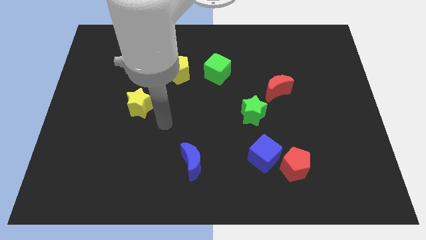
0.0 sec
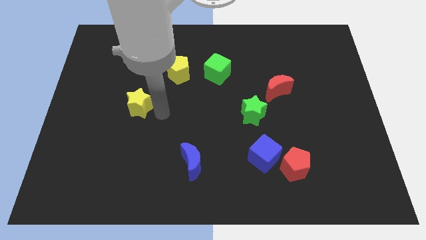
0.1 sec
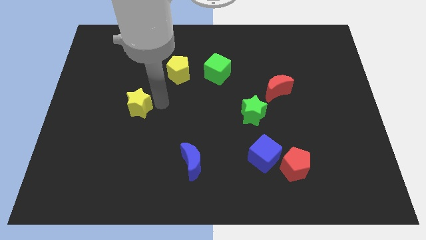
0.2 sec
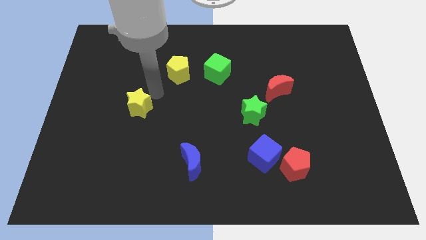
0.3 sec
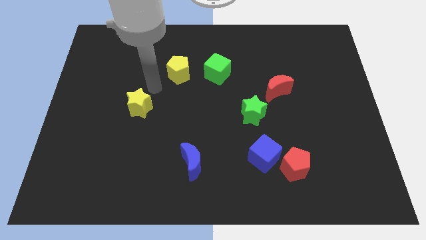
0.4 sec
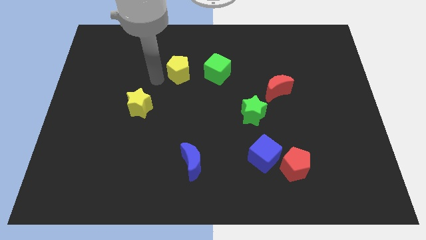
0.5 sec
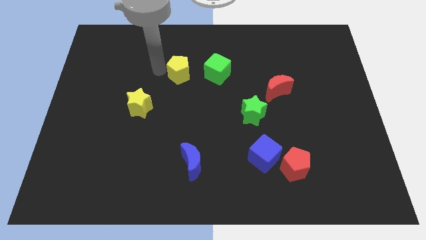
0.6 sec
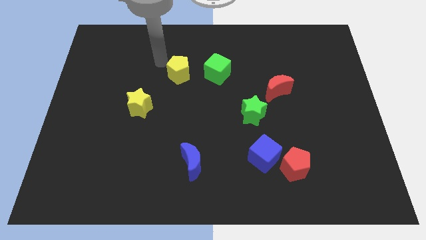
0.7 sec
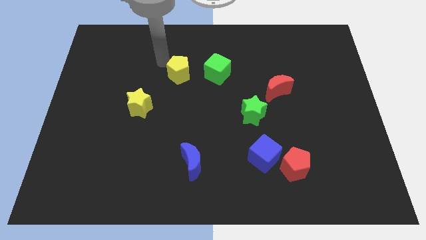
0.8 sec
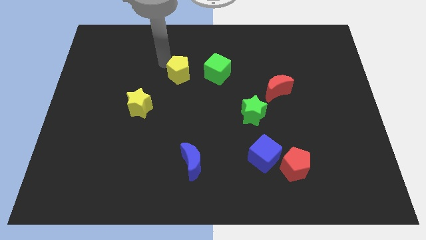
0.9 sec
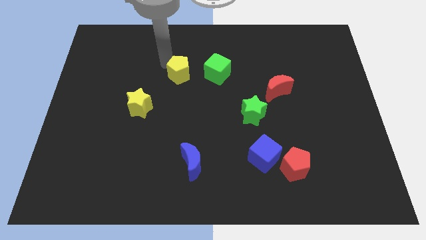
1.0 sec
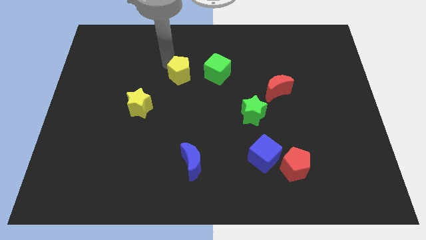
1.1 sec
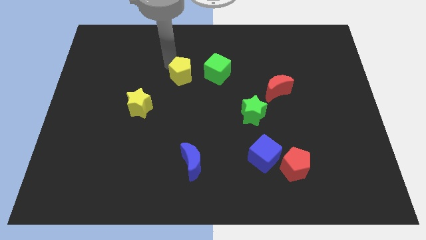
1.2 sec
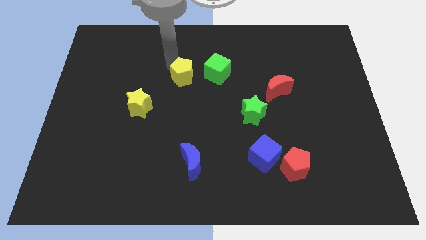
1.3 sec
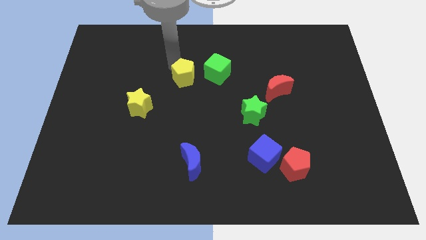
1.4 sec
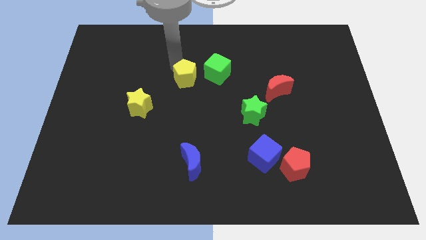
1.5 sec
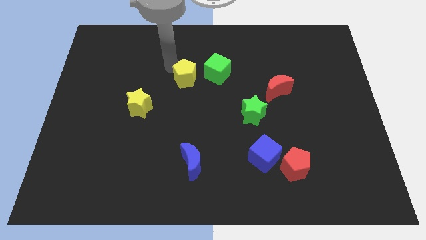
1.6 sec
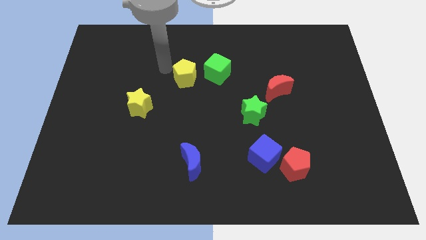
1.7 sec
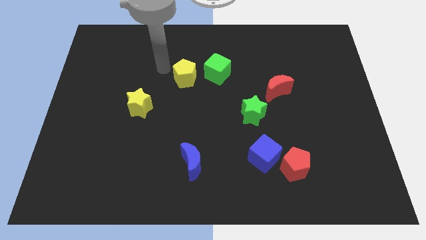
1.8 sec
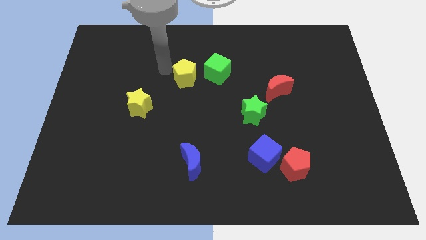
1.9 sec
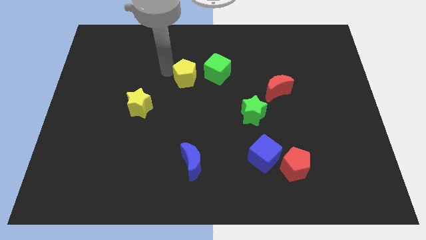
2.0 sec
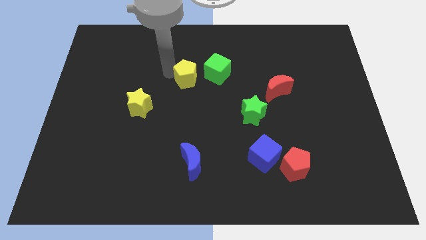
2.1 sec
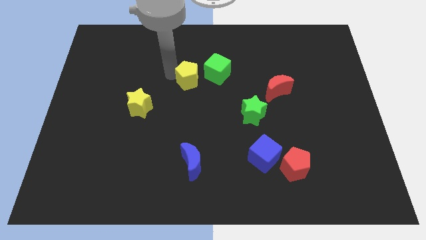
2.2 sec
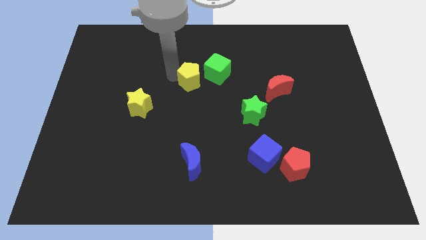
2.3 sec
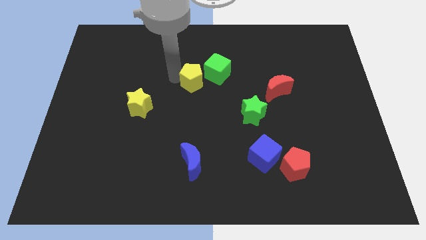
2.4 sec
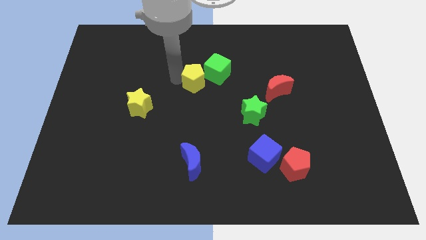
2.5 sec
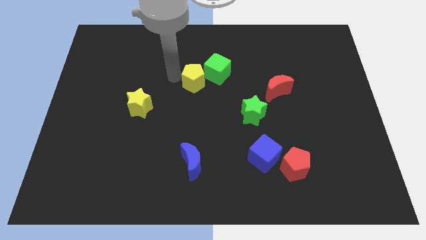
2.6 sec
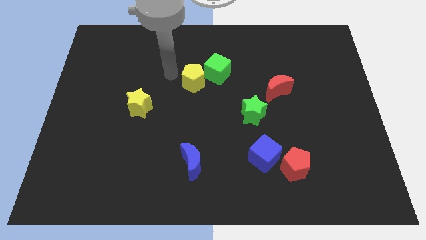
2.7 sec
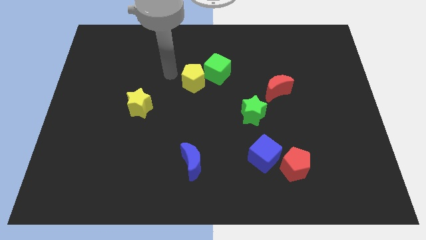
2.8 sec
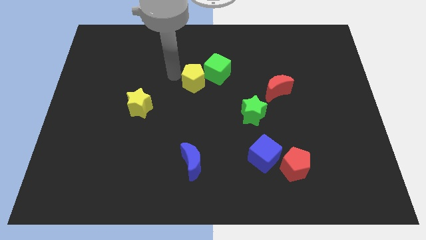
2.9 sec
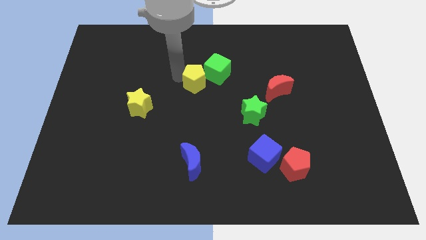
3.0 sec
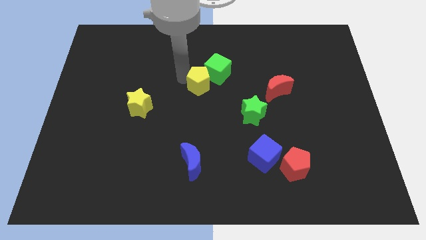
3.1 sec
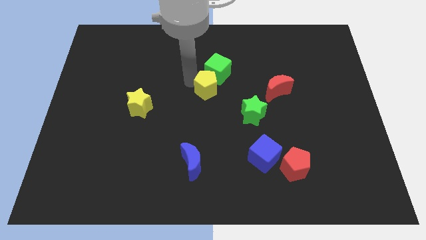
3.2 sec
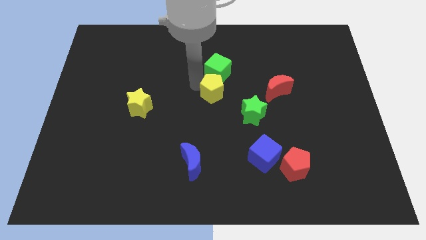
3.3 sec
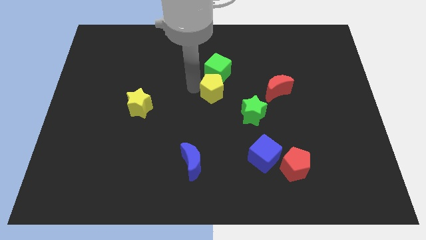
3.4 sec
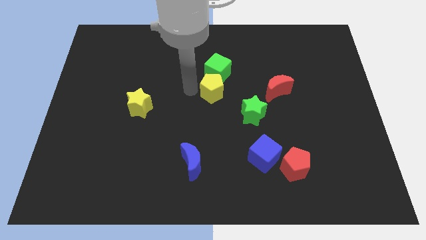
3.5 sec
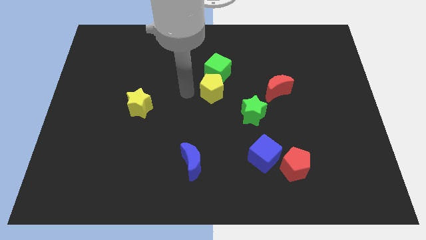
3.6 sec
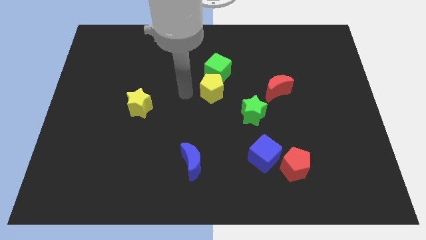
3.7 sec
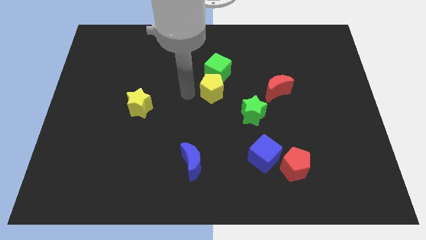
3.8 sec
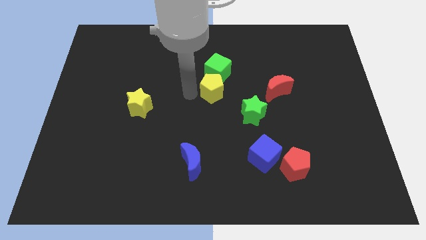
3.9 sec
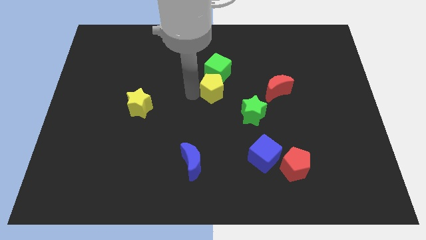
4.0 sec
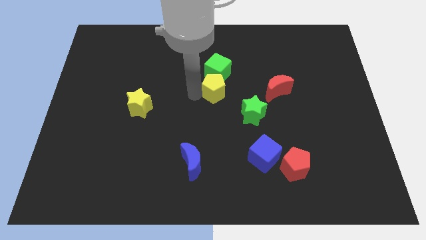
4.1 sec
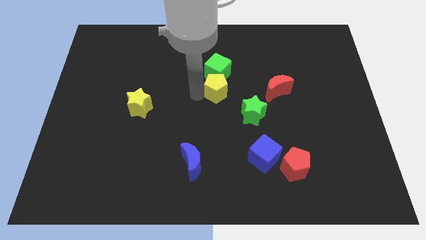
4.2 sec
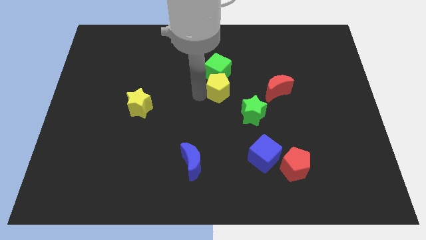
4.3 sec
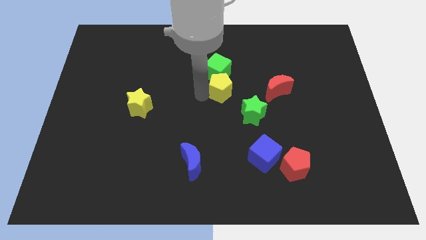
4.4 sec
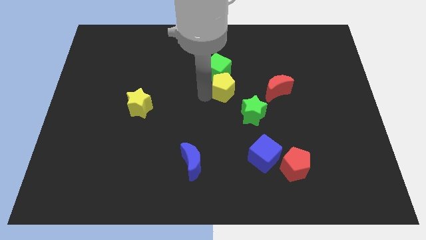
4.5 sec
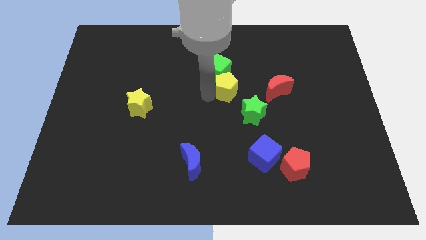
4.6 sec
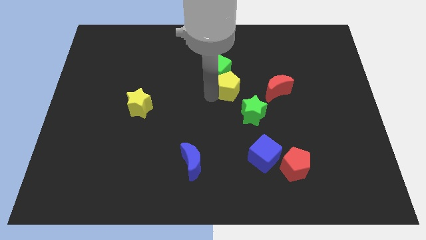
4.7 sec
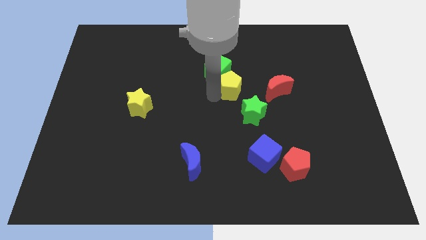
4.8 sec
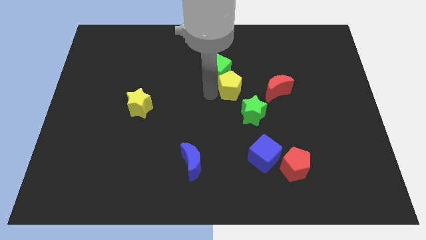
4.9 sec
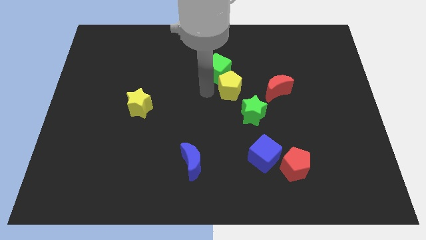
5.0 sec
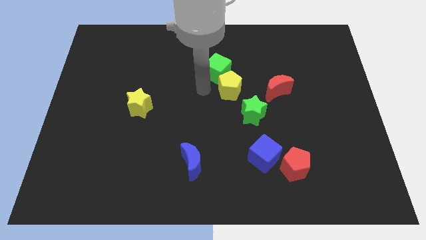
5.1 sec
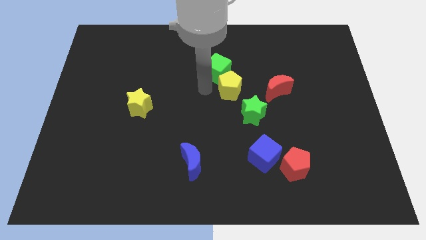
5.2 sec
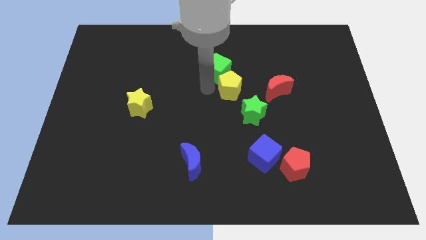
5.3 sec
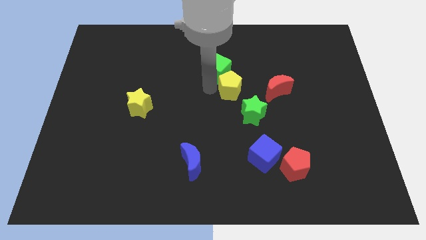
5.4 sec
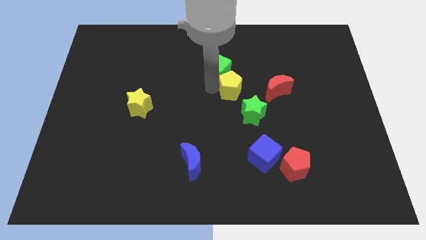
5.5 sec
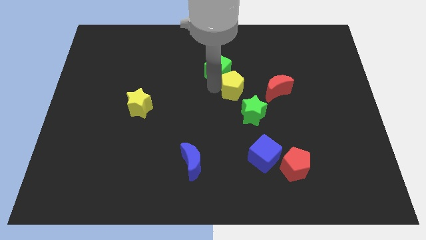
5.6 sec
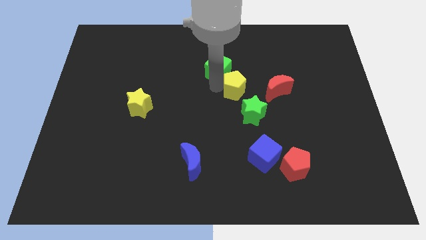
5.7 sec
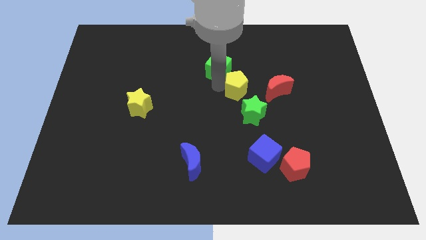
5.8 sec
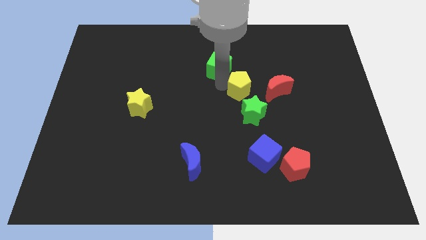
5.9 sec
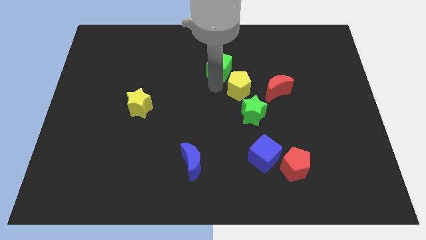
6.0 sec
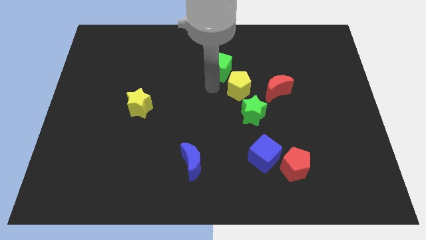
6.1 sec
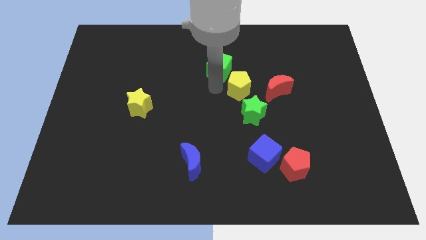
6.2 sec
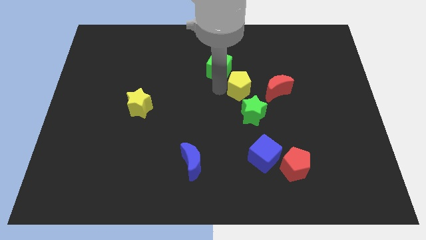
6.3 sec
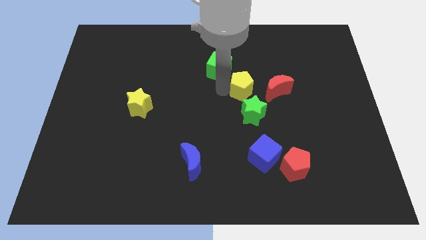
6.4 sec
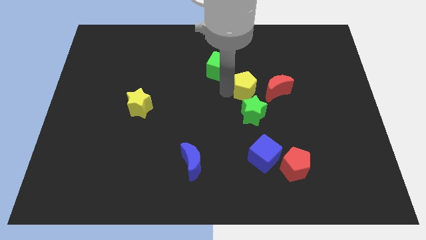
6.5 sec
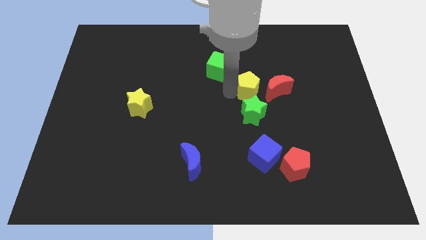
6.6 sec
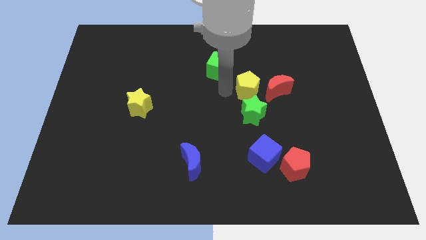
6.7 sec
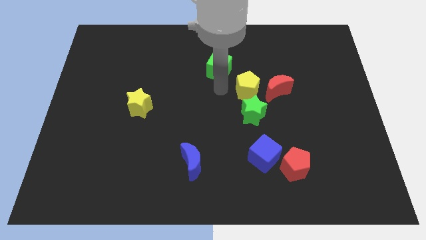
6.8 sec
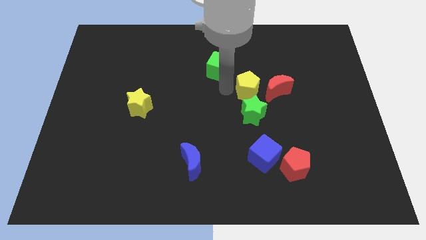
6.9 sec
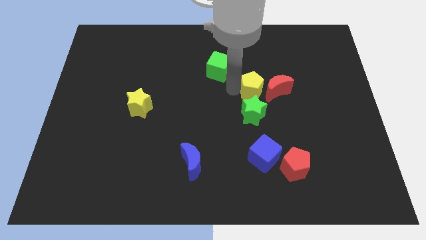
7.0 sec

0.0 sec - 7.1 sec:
put the yellow pentagon to the red moon
